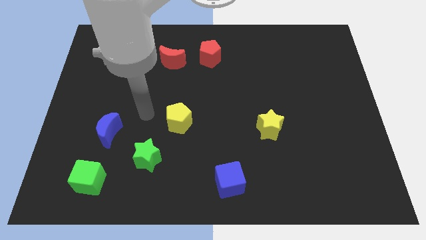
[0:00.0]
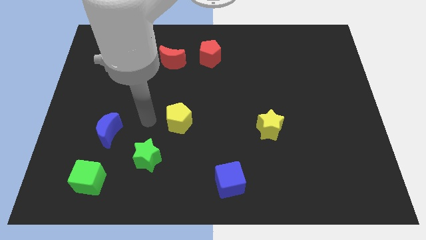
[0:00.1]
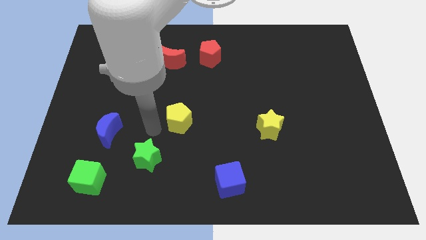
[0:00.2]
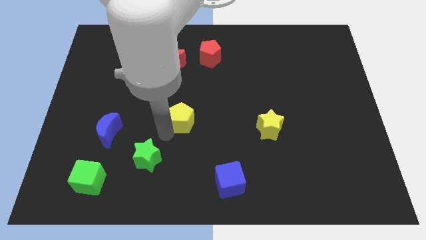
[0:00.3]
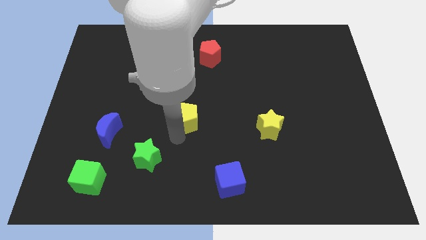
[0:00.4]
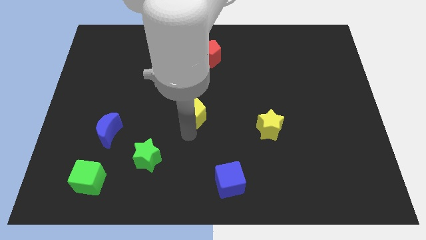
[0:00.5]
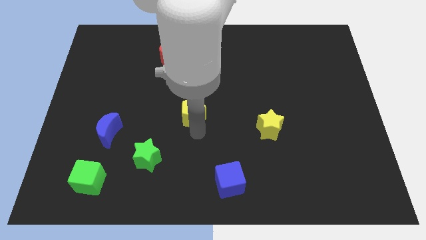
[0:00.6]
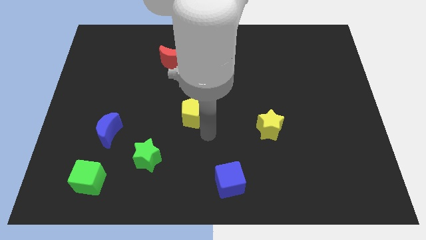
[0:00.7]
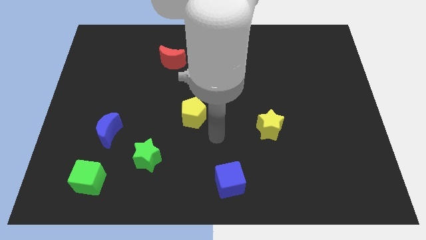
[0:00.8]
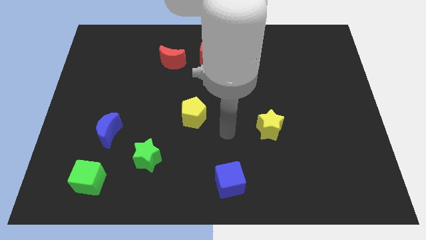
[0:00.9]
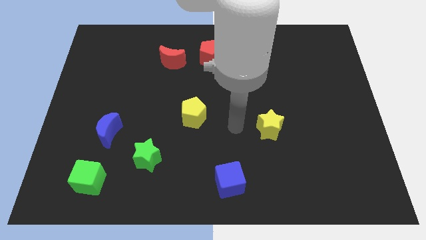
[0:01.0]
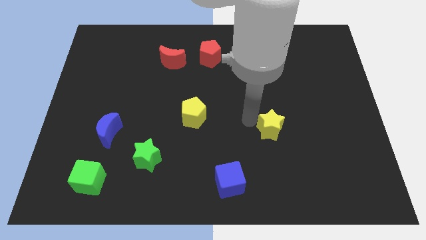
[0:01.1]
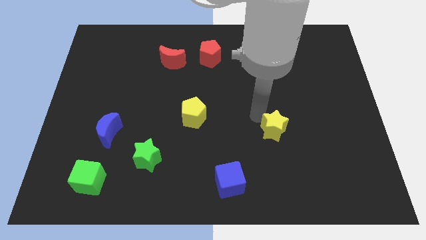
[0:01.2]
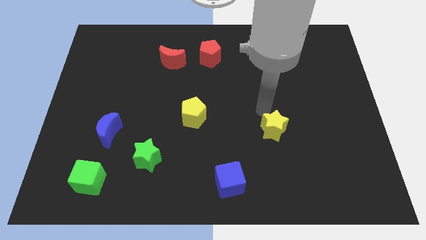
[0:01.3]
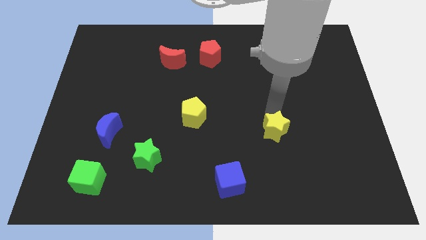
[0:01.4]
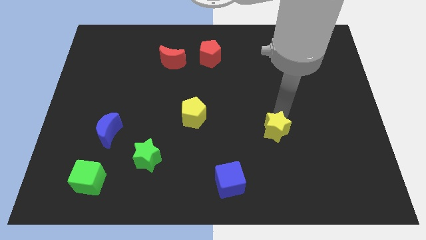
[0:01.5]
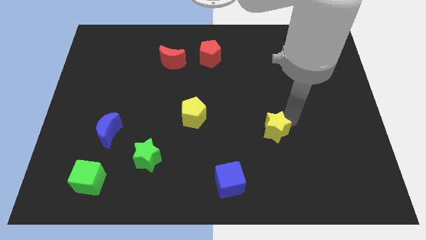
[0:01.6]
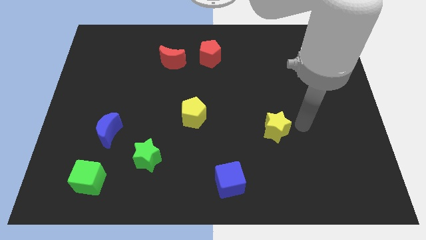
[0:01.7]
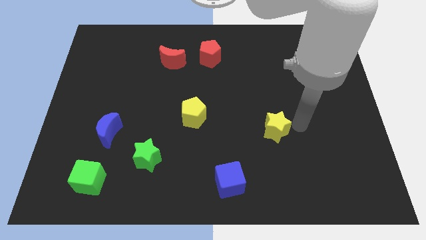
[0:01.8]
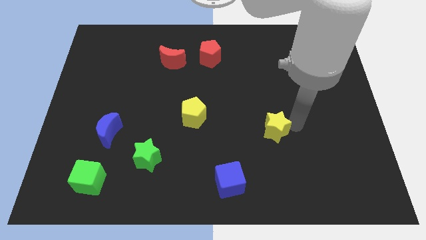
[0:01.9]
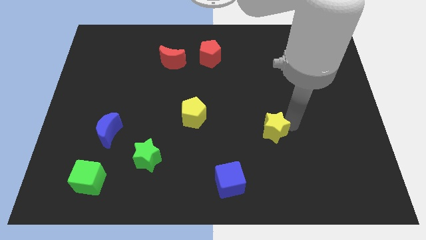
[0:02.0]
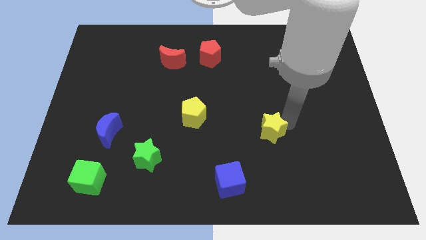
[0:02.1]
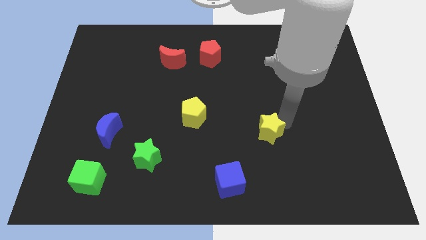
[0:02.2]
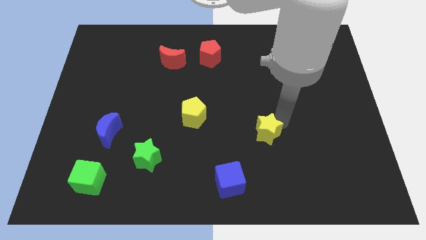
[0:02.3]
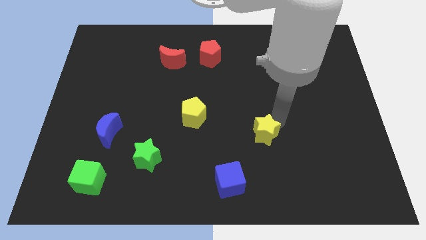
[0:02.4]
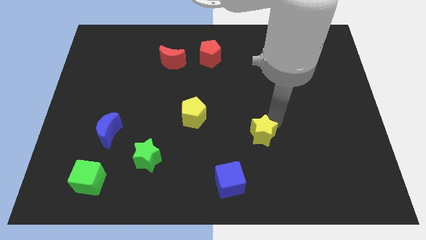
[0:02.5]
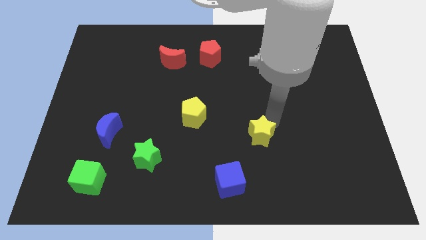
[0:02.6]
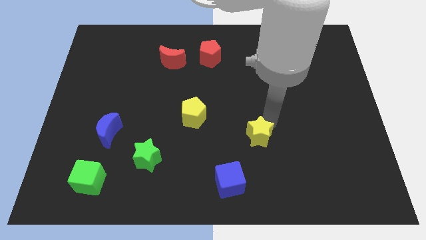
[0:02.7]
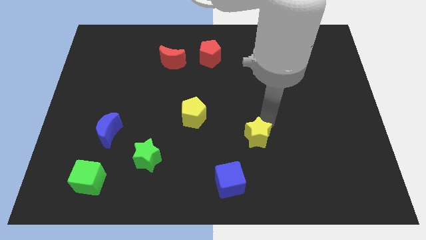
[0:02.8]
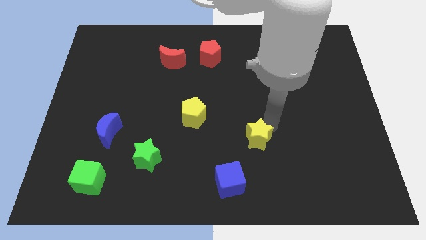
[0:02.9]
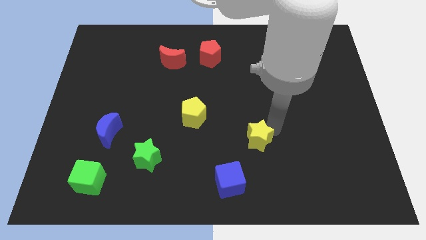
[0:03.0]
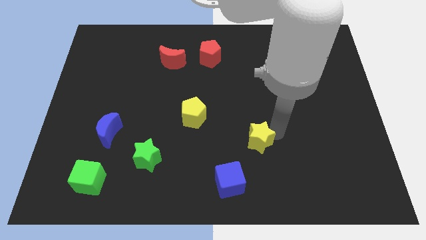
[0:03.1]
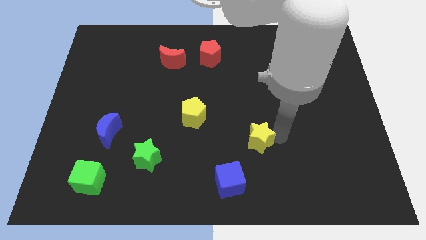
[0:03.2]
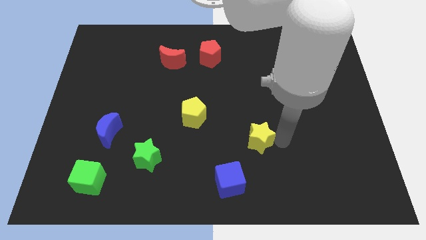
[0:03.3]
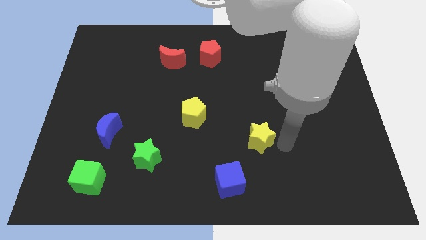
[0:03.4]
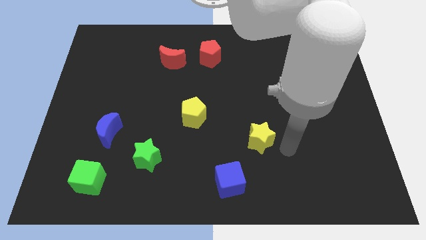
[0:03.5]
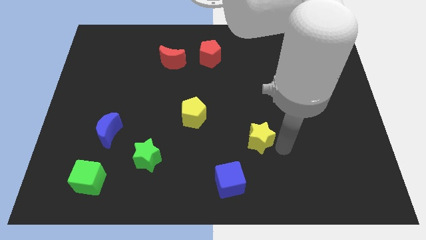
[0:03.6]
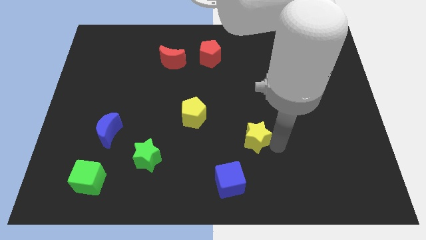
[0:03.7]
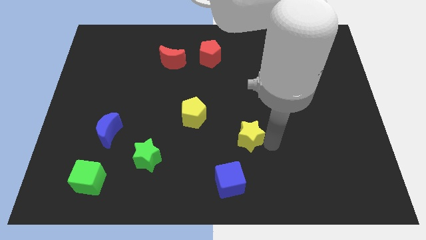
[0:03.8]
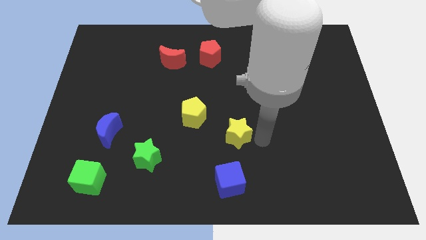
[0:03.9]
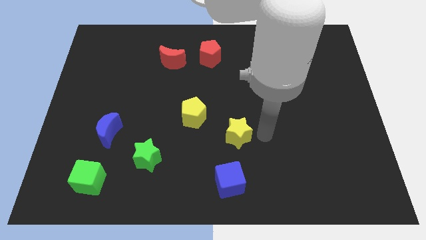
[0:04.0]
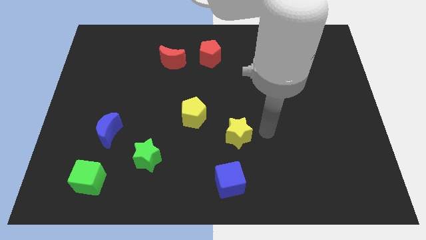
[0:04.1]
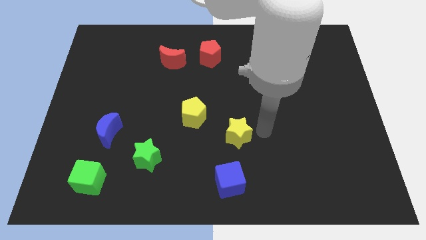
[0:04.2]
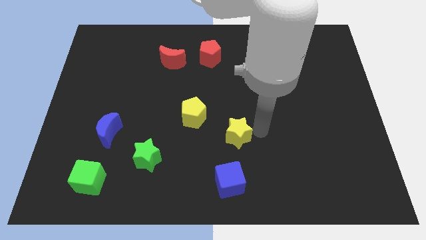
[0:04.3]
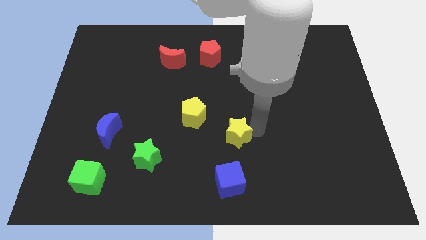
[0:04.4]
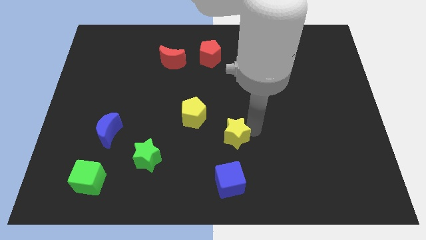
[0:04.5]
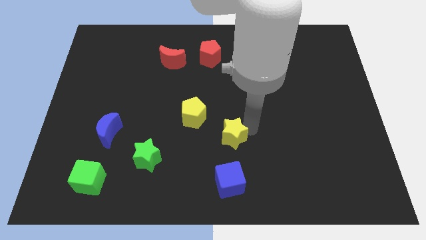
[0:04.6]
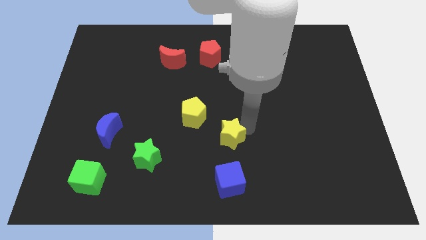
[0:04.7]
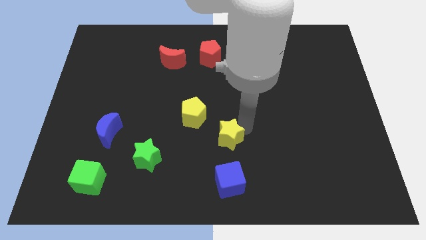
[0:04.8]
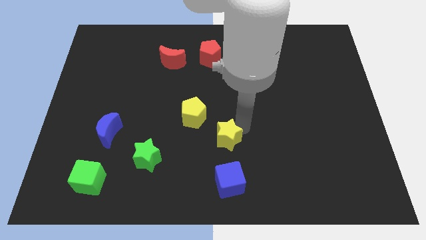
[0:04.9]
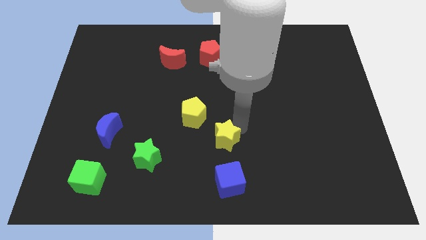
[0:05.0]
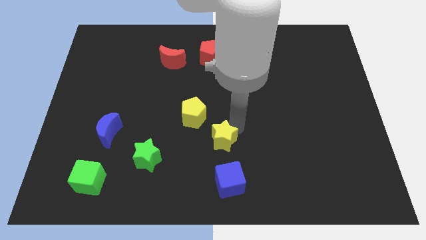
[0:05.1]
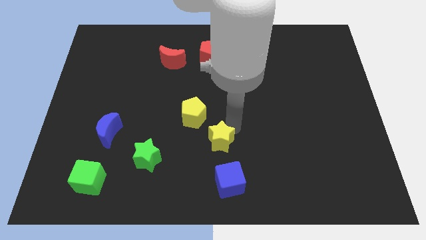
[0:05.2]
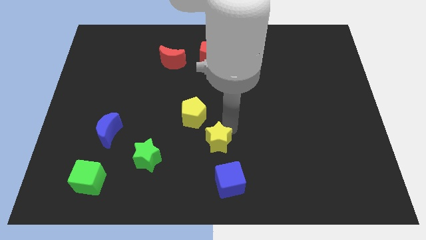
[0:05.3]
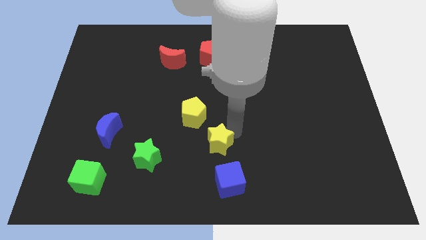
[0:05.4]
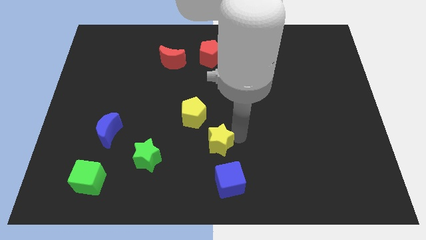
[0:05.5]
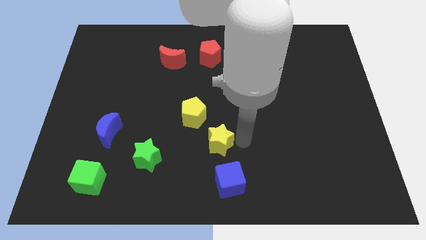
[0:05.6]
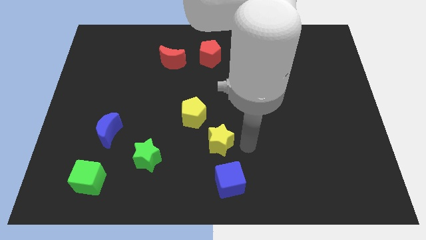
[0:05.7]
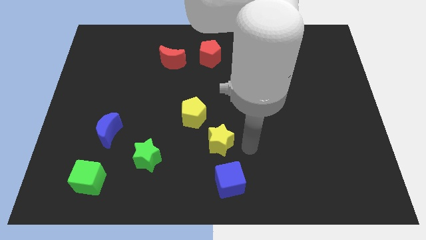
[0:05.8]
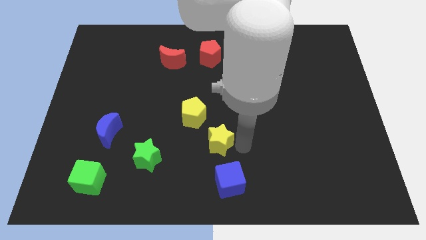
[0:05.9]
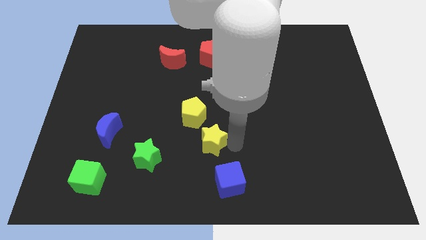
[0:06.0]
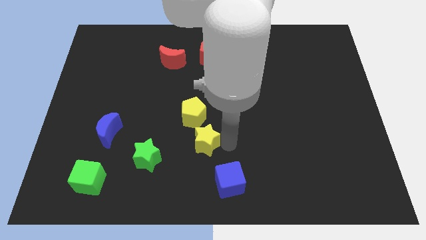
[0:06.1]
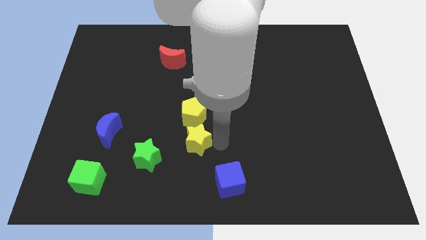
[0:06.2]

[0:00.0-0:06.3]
move the yellow star to the top right side of the green star

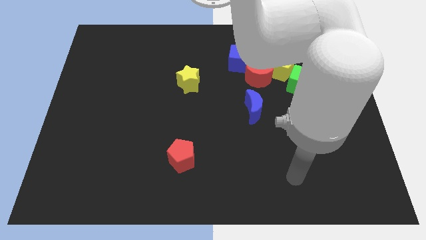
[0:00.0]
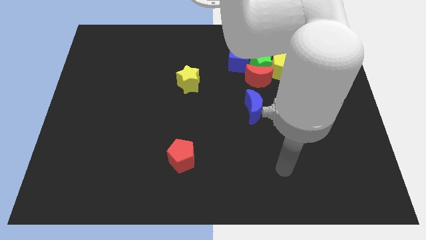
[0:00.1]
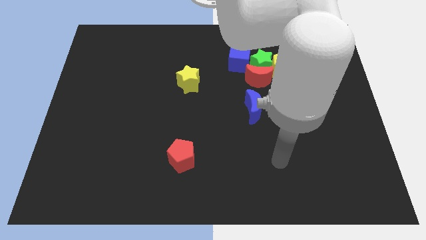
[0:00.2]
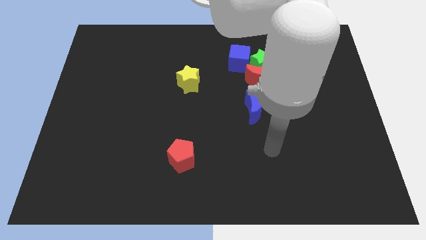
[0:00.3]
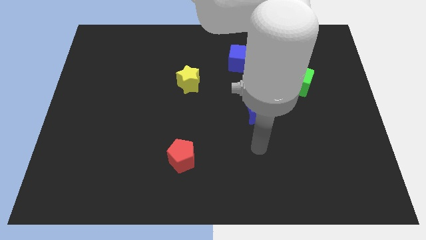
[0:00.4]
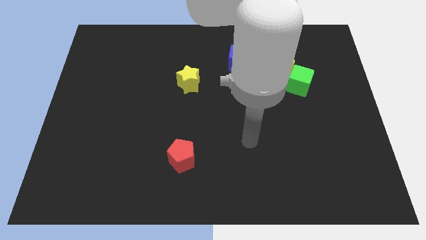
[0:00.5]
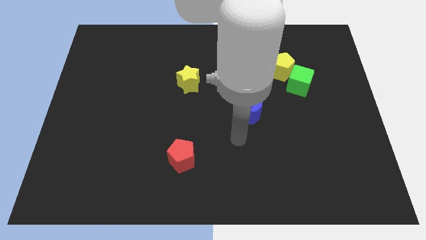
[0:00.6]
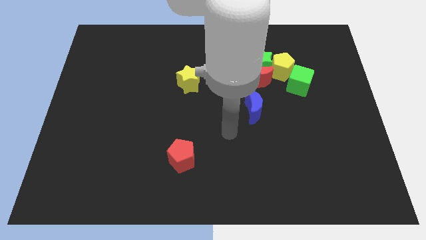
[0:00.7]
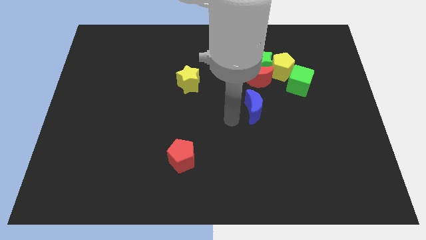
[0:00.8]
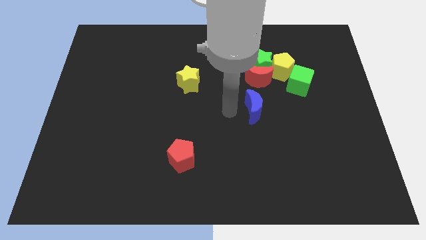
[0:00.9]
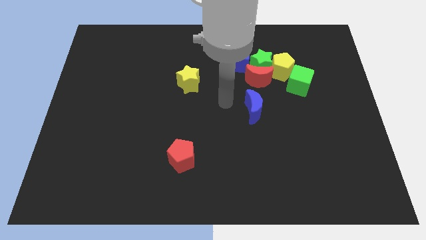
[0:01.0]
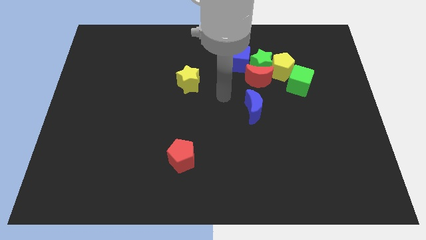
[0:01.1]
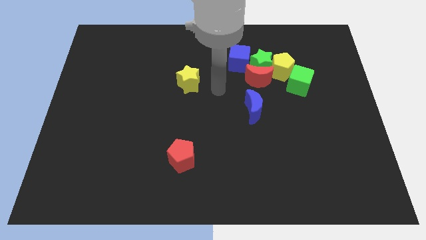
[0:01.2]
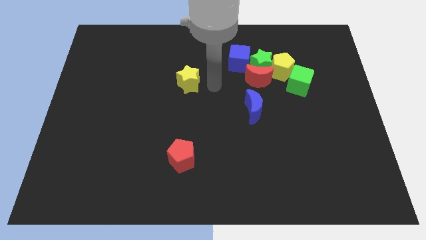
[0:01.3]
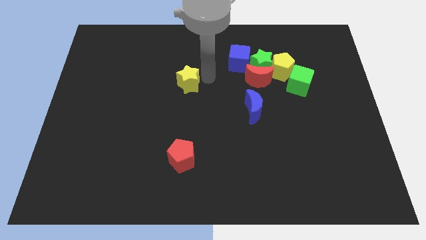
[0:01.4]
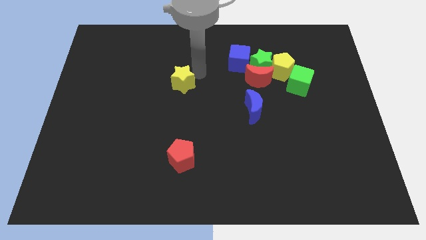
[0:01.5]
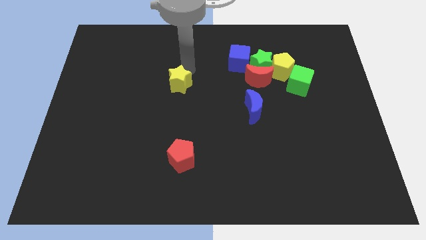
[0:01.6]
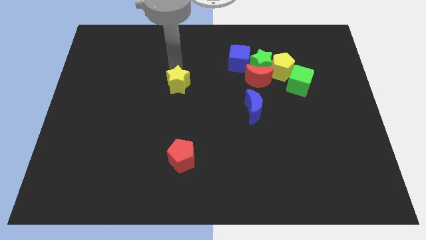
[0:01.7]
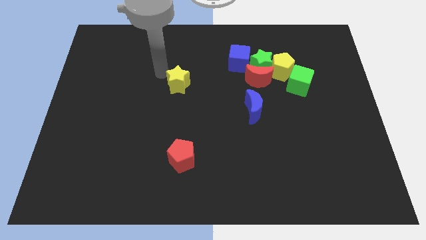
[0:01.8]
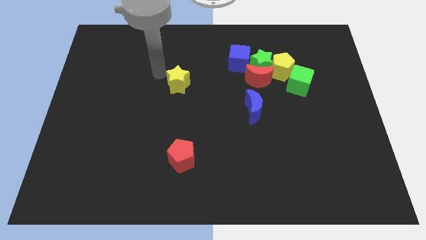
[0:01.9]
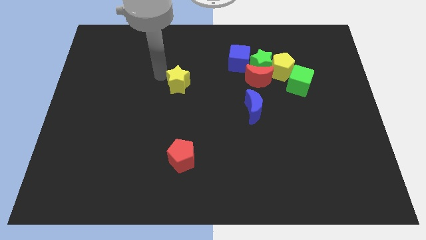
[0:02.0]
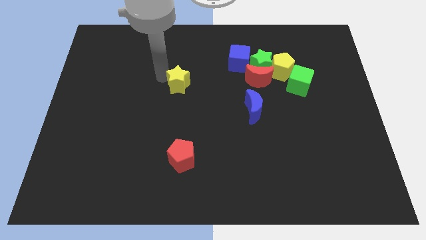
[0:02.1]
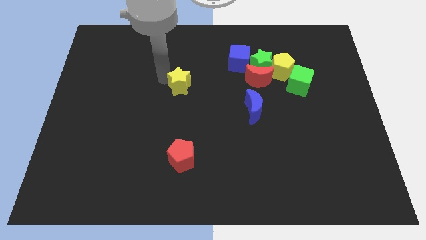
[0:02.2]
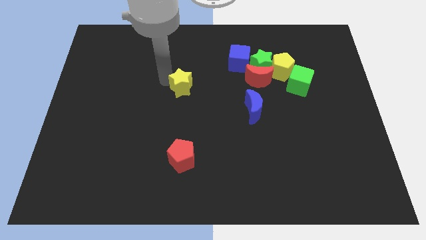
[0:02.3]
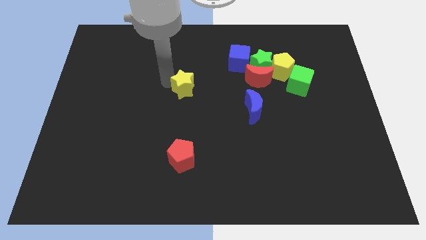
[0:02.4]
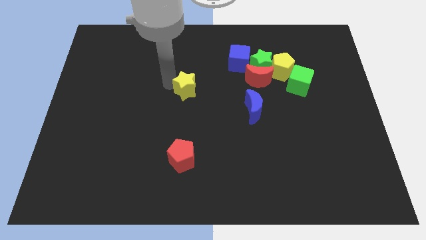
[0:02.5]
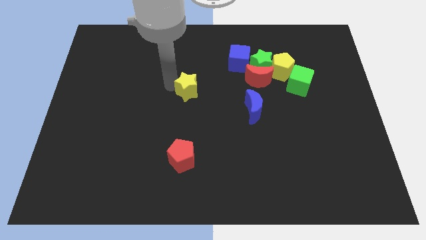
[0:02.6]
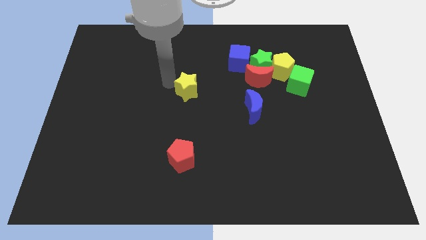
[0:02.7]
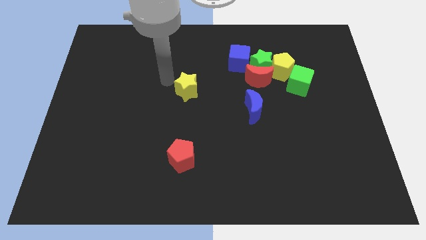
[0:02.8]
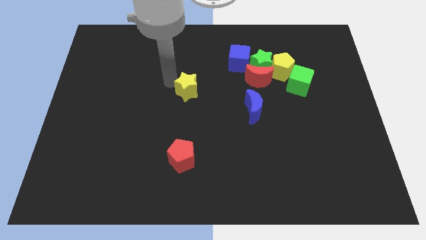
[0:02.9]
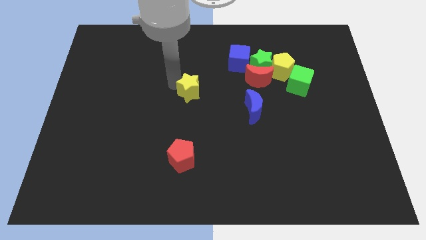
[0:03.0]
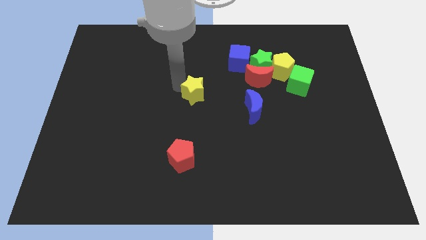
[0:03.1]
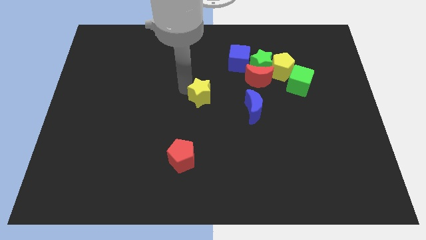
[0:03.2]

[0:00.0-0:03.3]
put the yellow star to the left side of the blue moon
